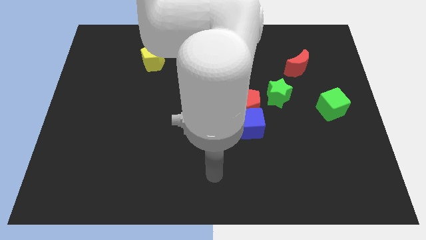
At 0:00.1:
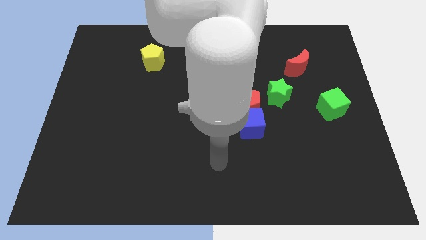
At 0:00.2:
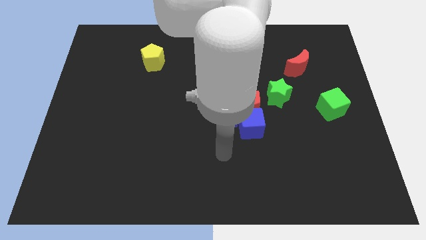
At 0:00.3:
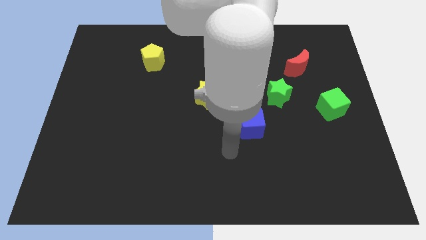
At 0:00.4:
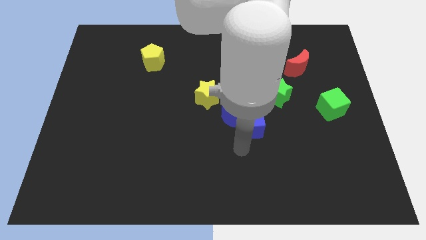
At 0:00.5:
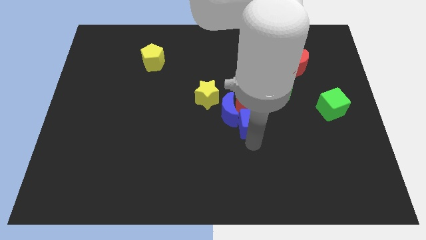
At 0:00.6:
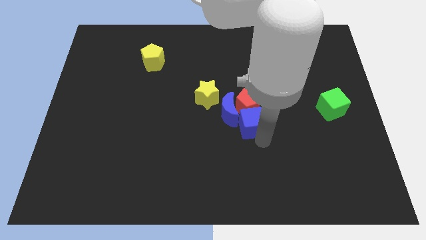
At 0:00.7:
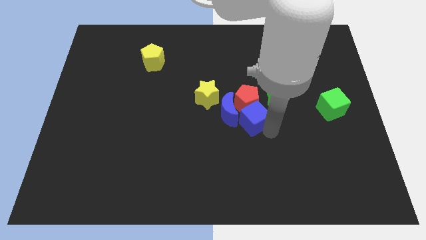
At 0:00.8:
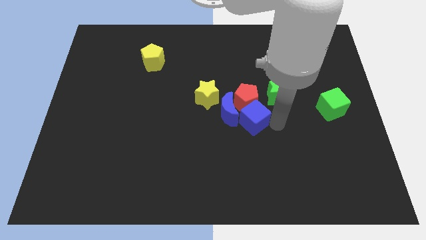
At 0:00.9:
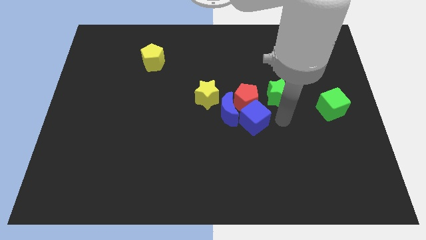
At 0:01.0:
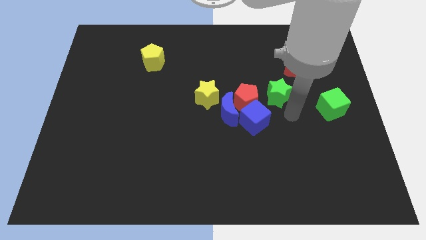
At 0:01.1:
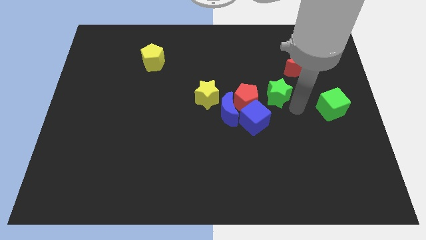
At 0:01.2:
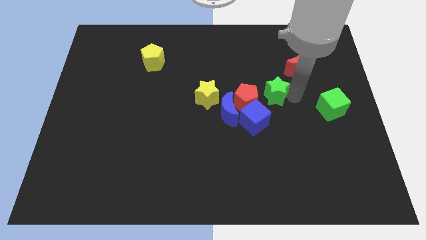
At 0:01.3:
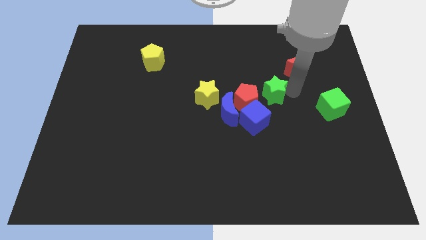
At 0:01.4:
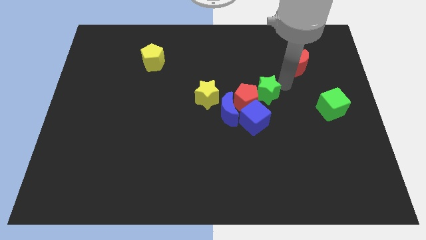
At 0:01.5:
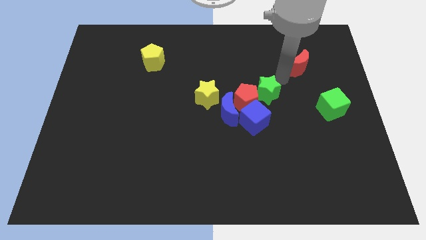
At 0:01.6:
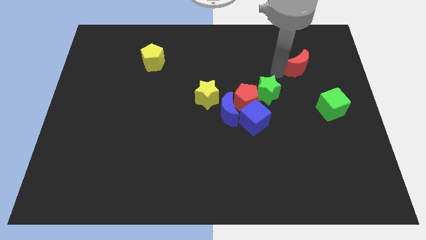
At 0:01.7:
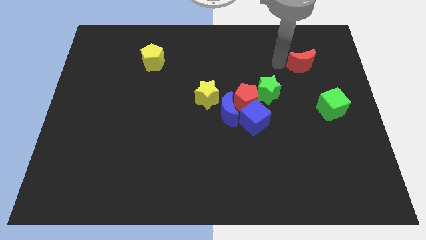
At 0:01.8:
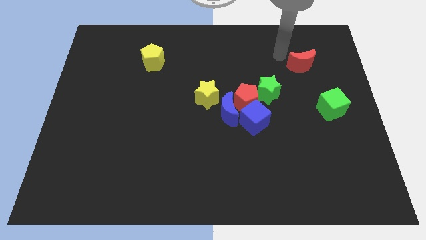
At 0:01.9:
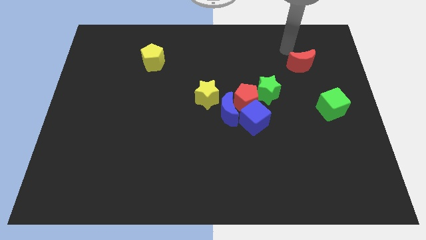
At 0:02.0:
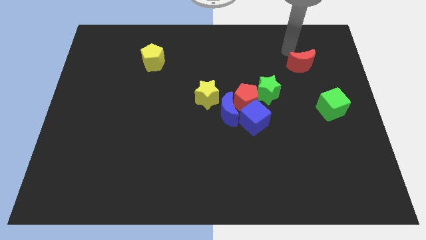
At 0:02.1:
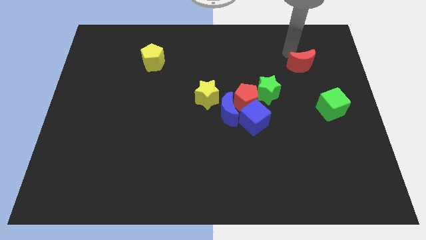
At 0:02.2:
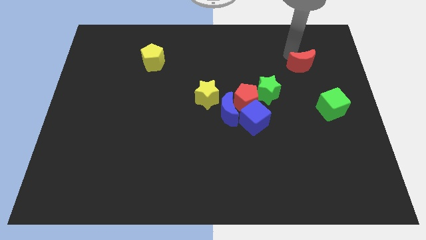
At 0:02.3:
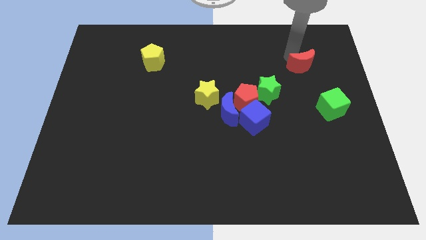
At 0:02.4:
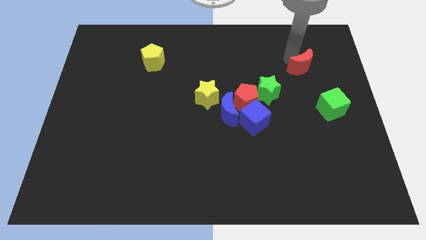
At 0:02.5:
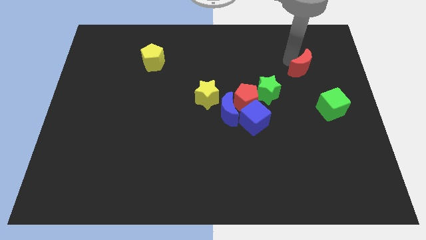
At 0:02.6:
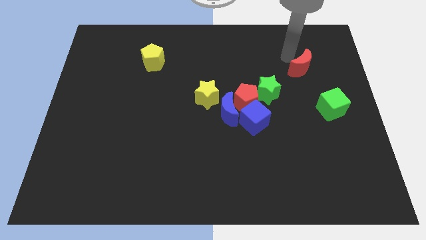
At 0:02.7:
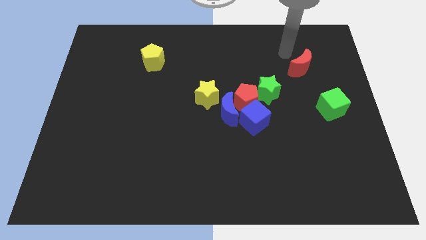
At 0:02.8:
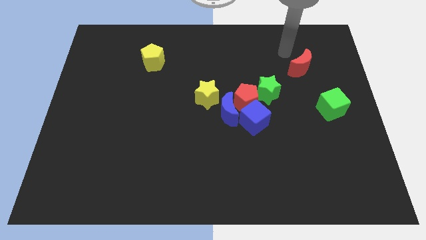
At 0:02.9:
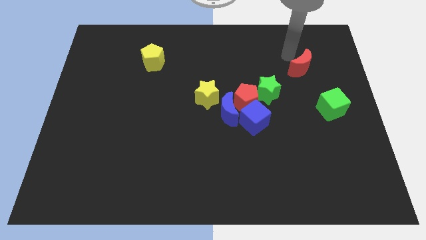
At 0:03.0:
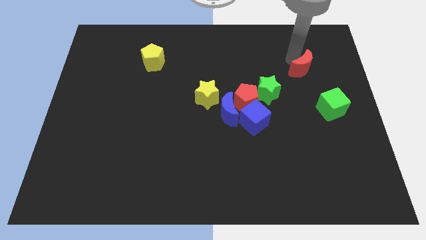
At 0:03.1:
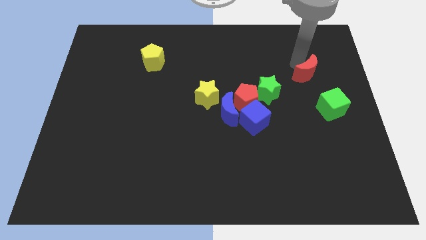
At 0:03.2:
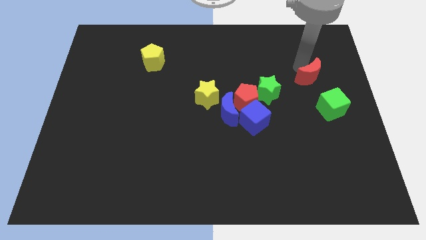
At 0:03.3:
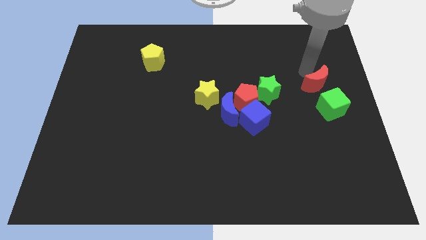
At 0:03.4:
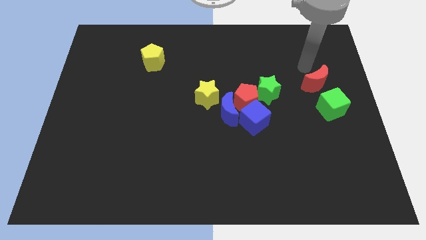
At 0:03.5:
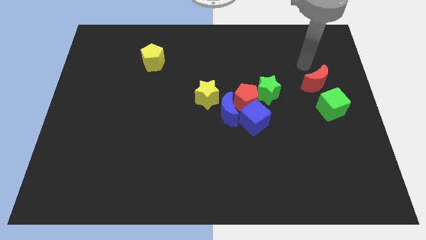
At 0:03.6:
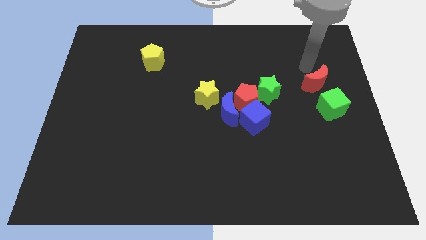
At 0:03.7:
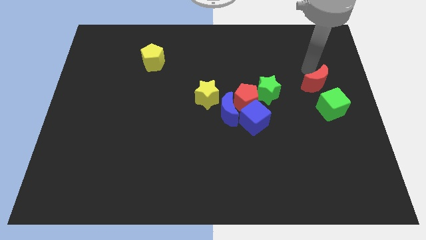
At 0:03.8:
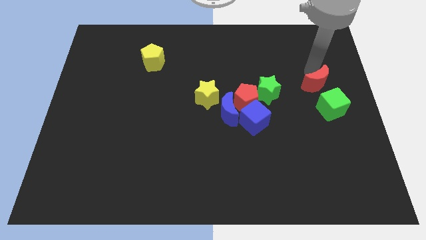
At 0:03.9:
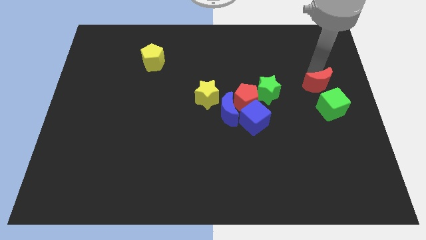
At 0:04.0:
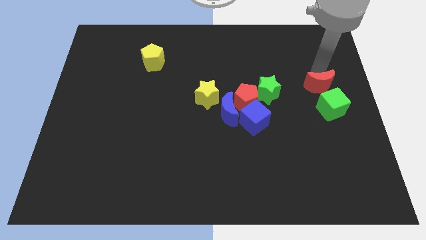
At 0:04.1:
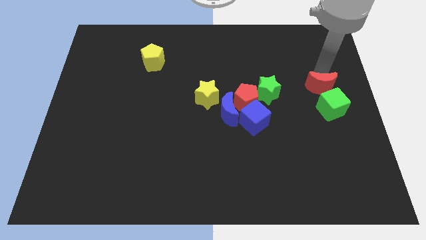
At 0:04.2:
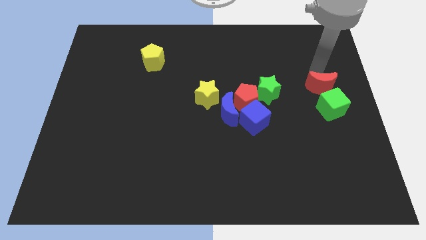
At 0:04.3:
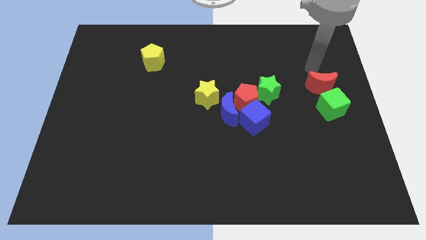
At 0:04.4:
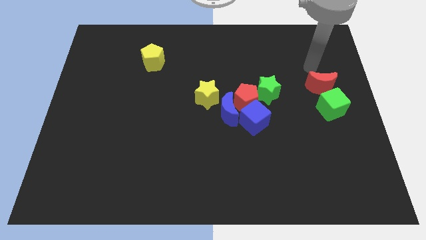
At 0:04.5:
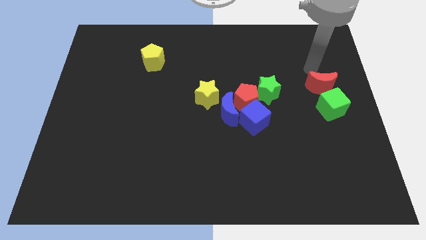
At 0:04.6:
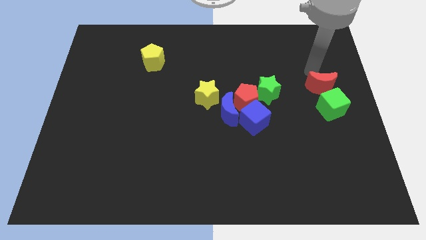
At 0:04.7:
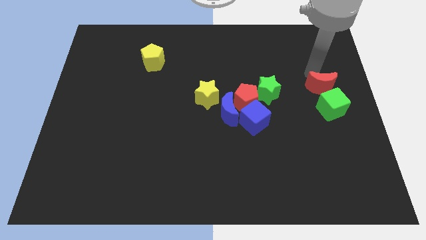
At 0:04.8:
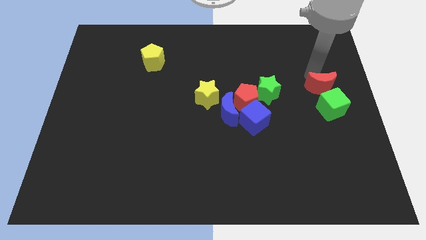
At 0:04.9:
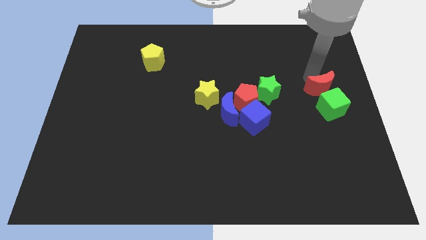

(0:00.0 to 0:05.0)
push the red moon next to the green cube

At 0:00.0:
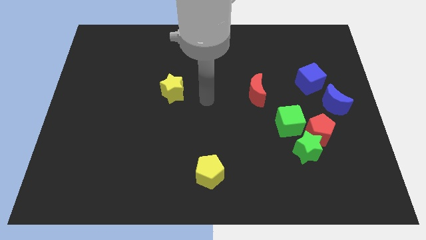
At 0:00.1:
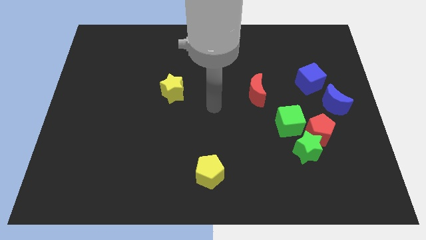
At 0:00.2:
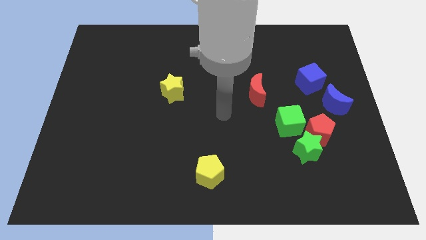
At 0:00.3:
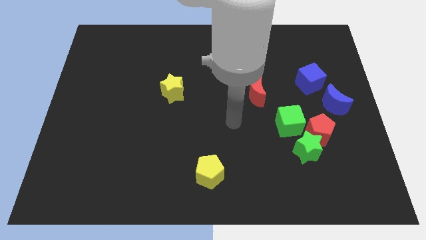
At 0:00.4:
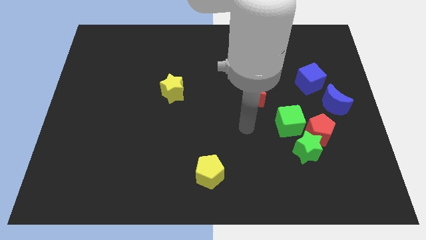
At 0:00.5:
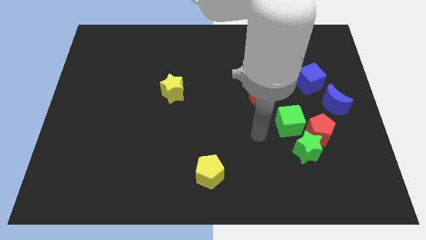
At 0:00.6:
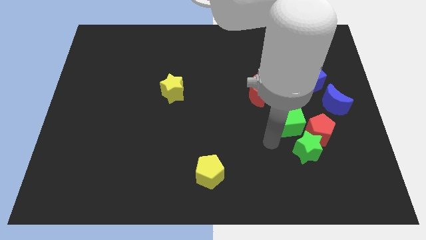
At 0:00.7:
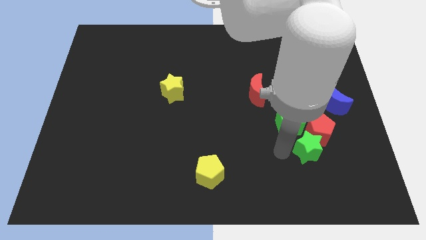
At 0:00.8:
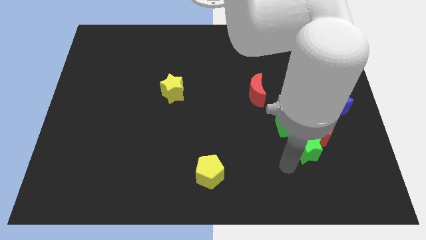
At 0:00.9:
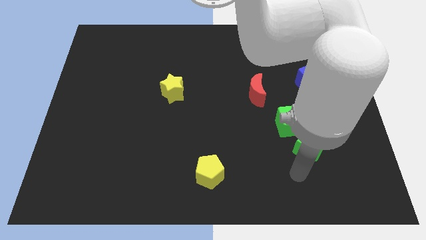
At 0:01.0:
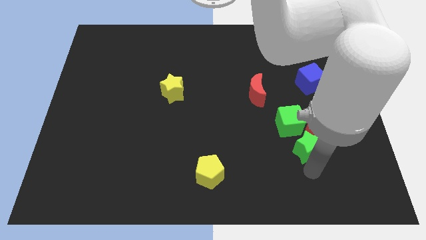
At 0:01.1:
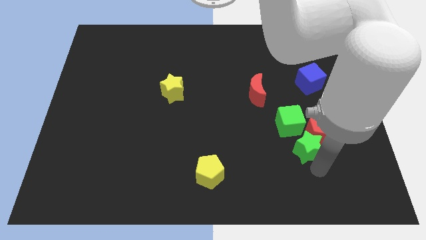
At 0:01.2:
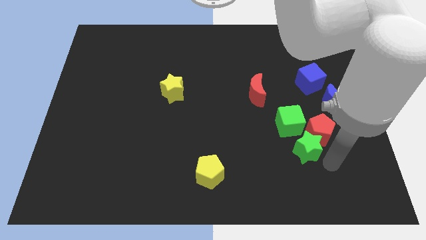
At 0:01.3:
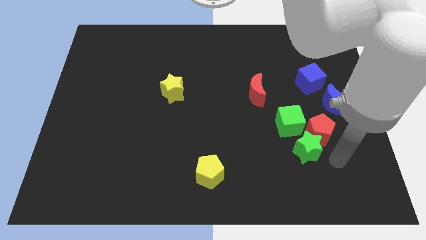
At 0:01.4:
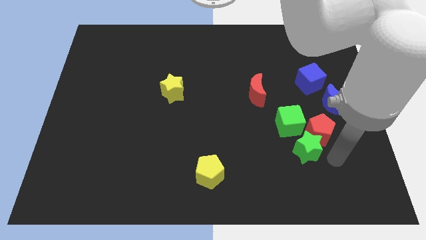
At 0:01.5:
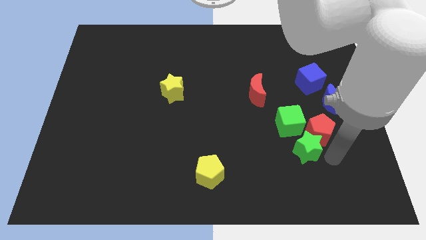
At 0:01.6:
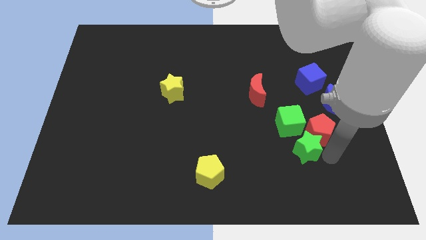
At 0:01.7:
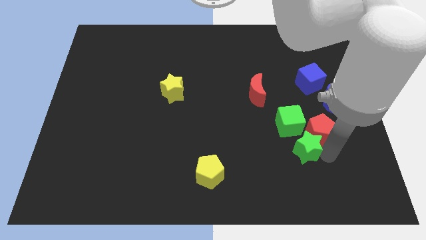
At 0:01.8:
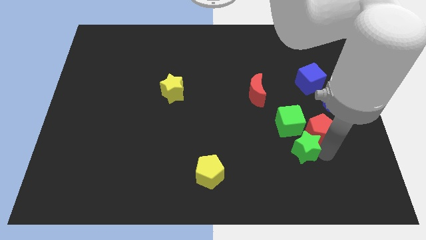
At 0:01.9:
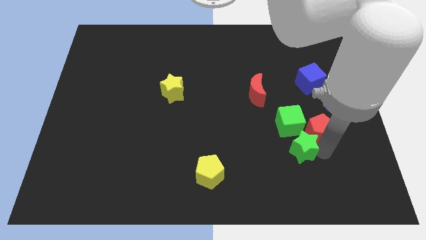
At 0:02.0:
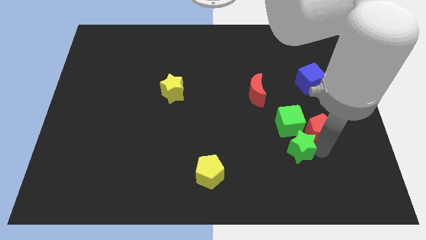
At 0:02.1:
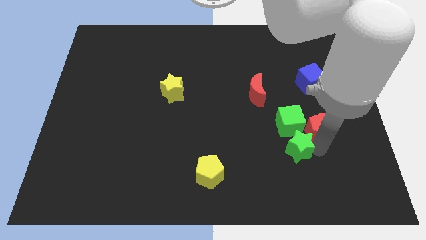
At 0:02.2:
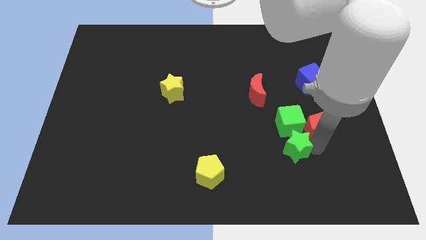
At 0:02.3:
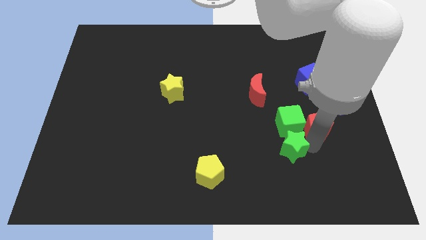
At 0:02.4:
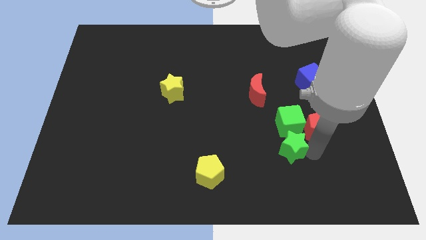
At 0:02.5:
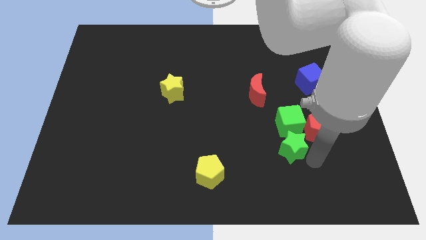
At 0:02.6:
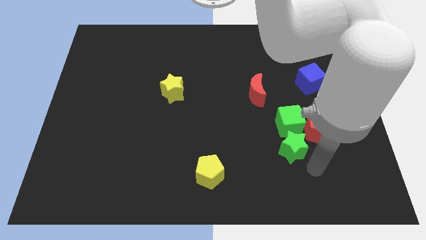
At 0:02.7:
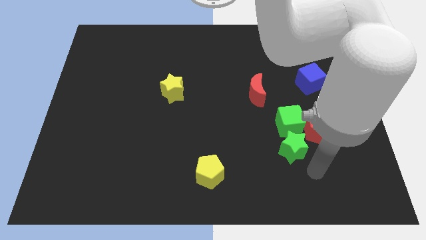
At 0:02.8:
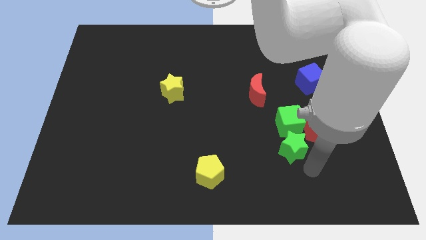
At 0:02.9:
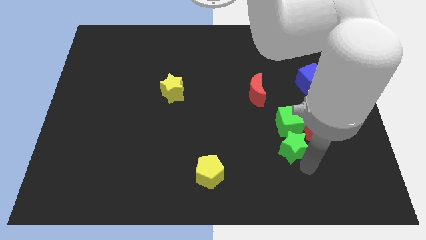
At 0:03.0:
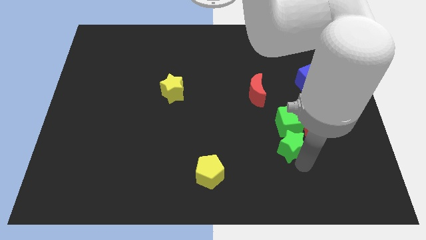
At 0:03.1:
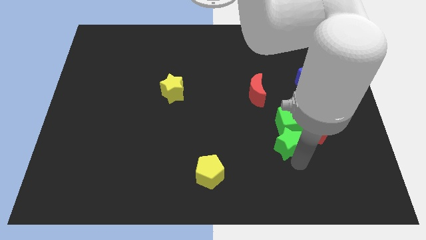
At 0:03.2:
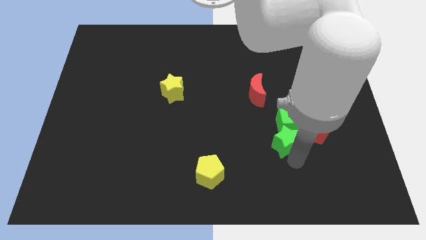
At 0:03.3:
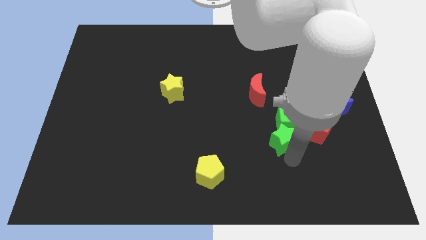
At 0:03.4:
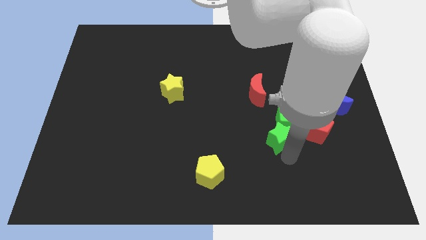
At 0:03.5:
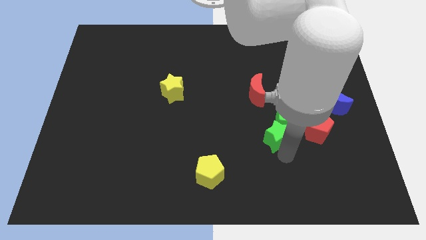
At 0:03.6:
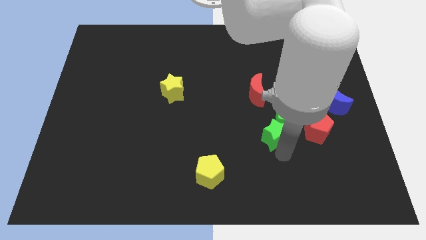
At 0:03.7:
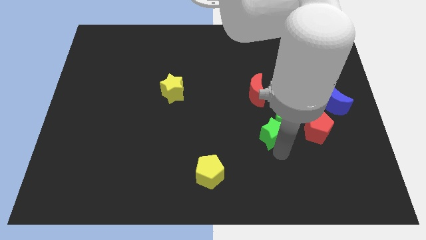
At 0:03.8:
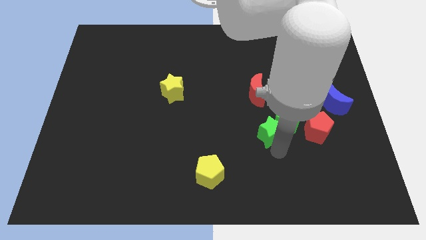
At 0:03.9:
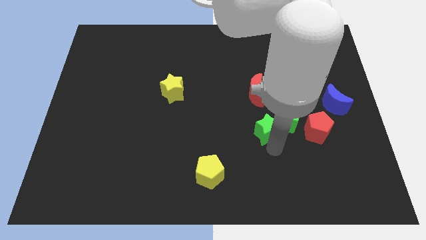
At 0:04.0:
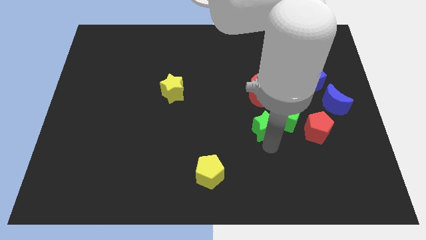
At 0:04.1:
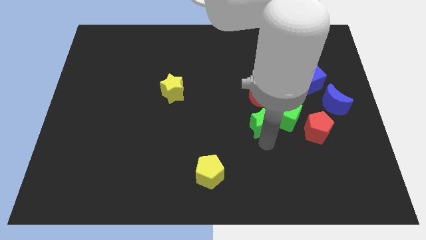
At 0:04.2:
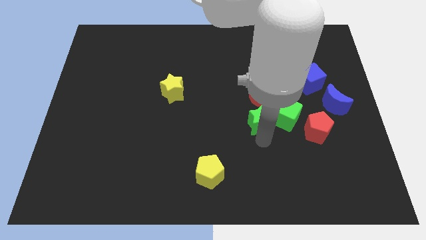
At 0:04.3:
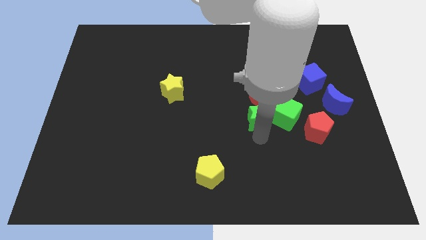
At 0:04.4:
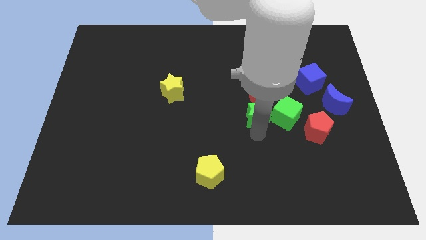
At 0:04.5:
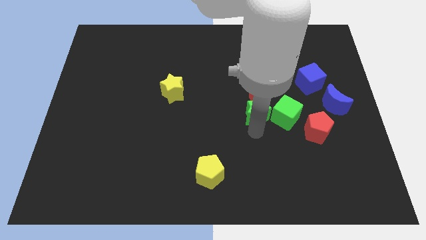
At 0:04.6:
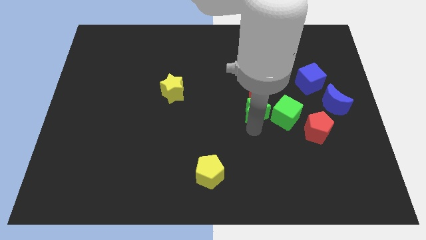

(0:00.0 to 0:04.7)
put the green star next to the red moon
